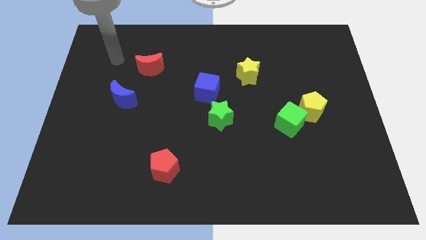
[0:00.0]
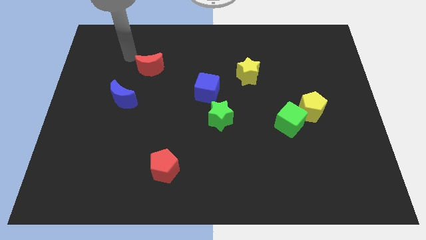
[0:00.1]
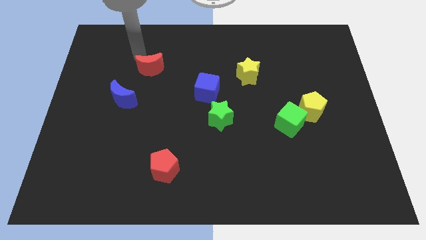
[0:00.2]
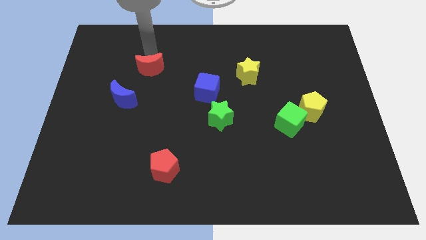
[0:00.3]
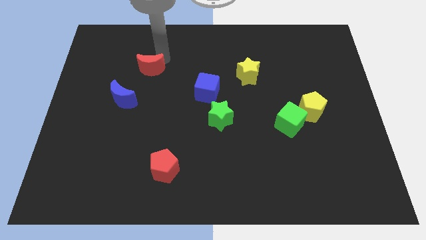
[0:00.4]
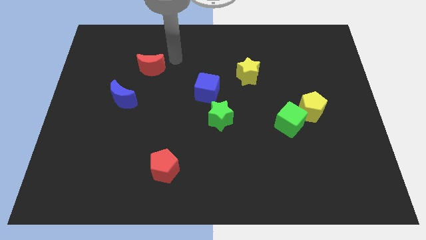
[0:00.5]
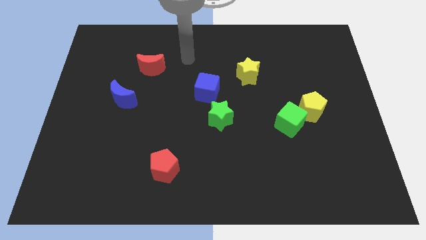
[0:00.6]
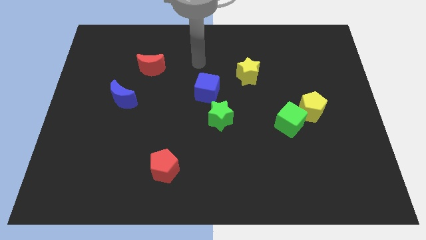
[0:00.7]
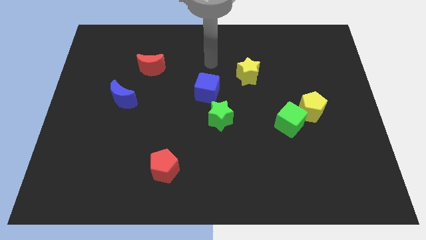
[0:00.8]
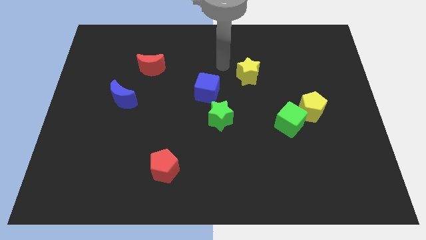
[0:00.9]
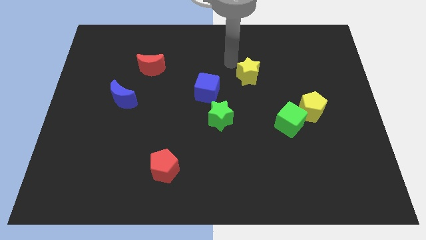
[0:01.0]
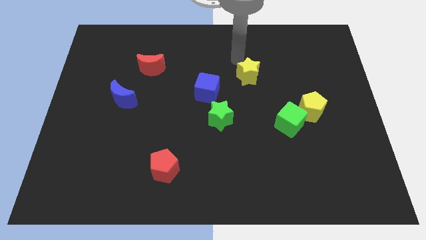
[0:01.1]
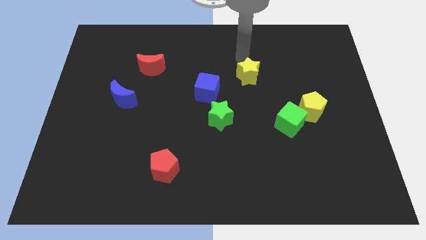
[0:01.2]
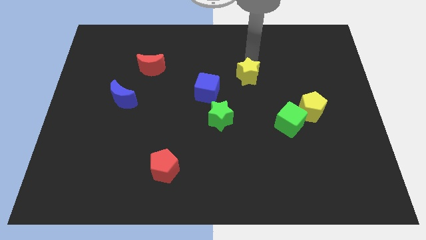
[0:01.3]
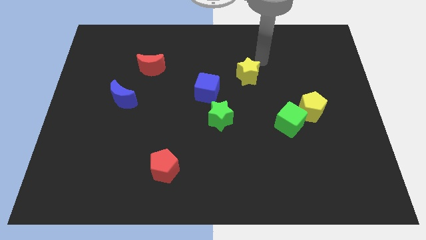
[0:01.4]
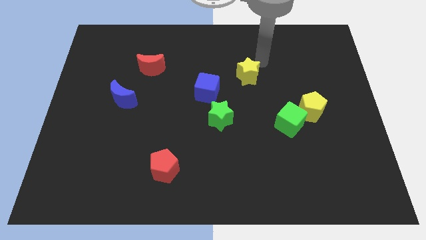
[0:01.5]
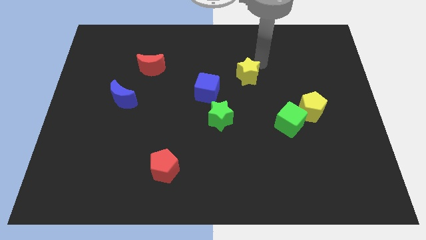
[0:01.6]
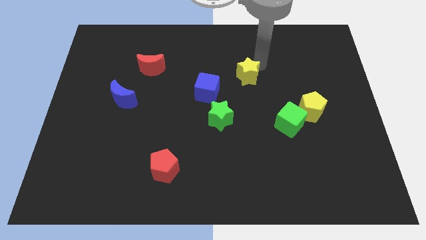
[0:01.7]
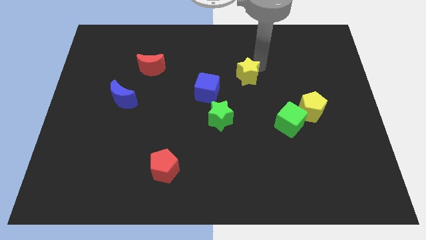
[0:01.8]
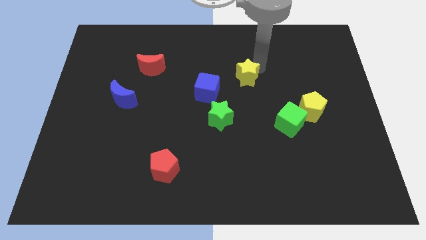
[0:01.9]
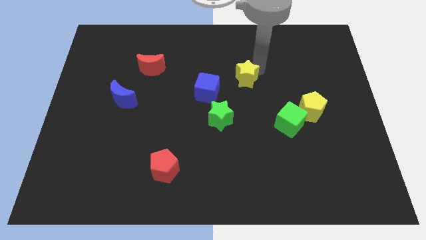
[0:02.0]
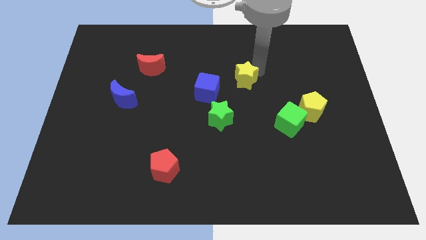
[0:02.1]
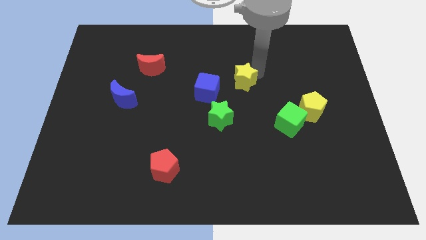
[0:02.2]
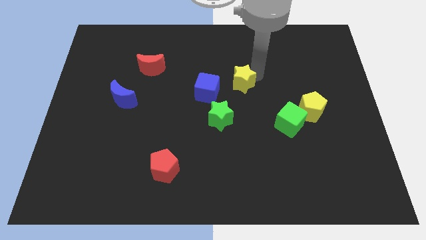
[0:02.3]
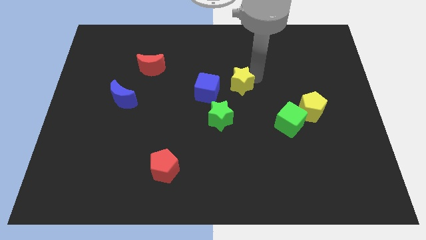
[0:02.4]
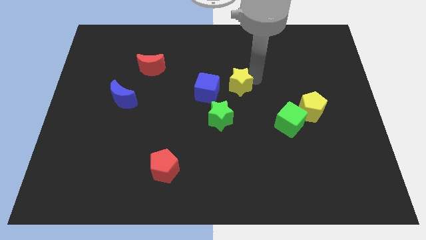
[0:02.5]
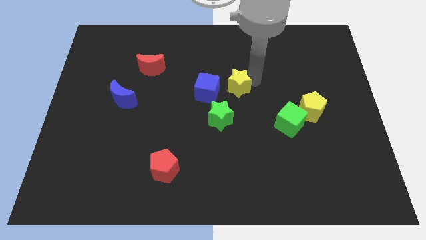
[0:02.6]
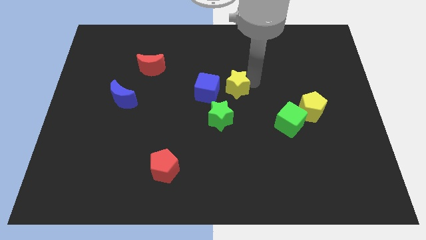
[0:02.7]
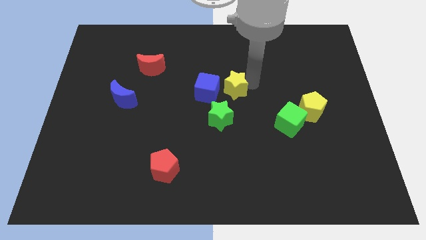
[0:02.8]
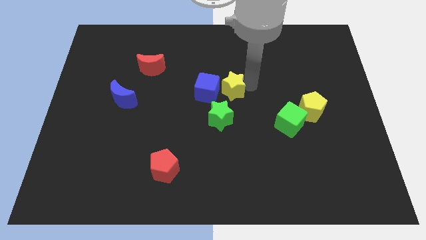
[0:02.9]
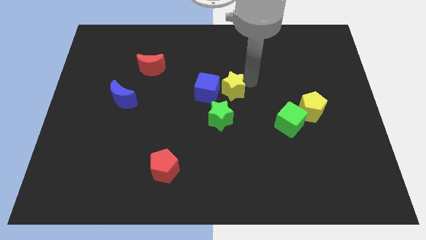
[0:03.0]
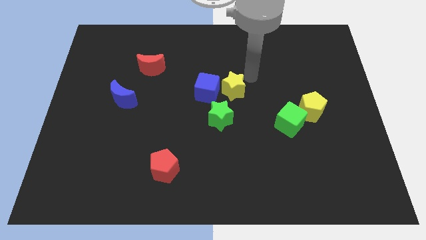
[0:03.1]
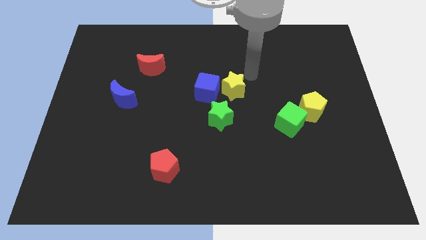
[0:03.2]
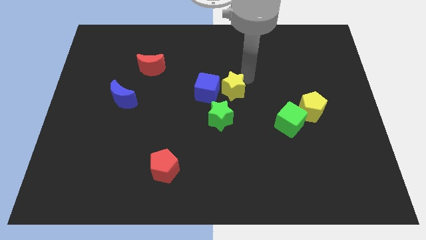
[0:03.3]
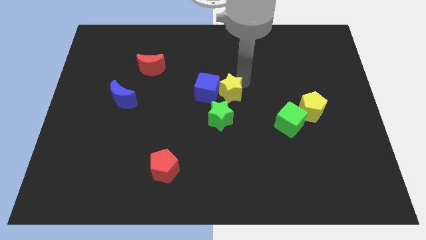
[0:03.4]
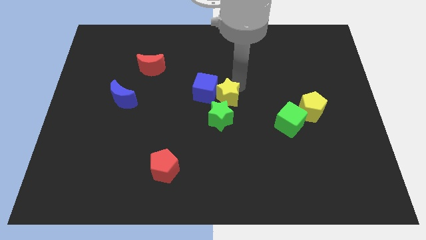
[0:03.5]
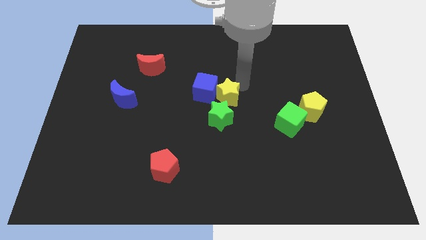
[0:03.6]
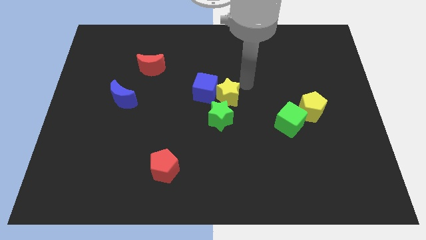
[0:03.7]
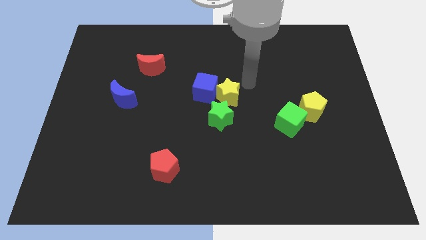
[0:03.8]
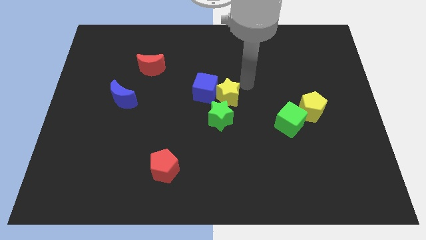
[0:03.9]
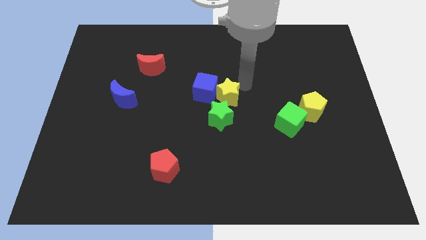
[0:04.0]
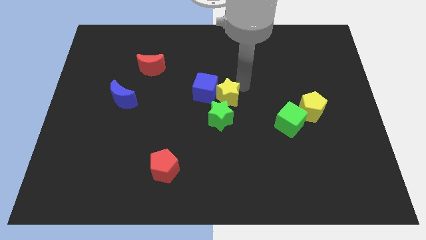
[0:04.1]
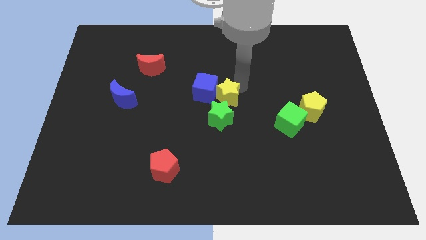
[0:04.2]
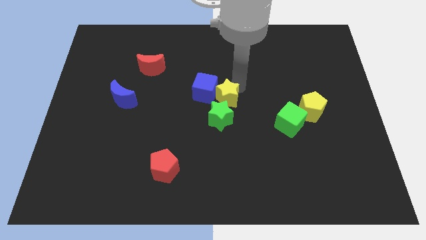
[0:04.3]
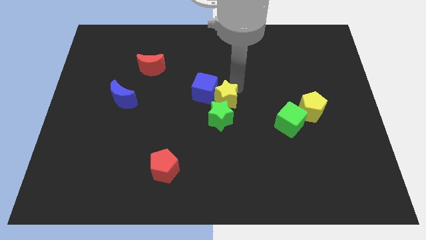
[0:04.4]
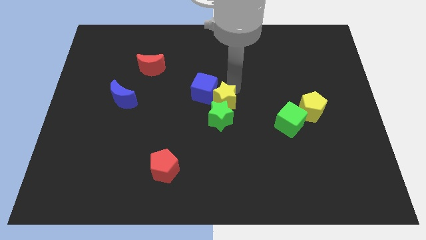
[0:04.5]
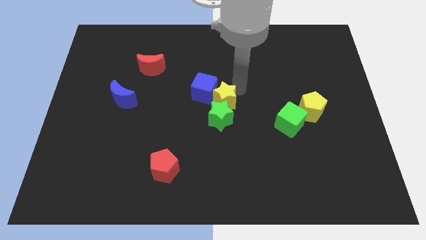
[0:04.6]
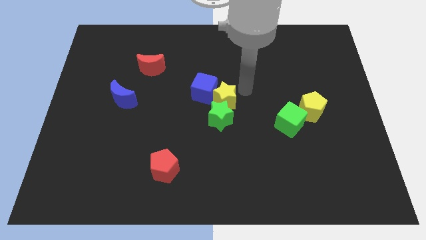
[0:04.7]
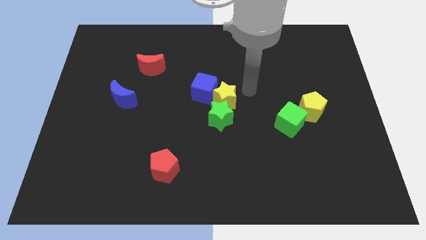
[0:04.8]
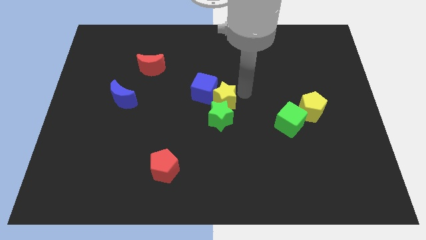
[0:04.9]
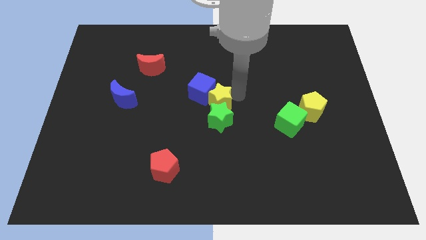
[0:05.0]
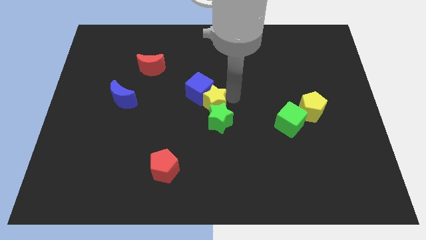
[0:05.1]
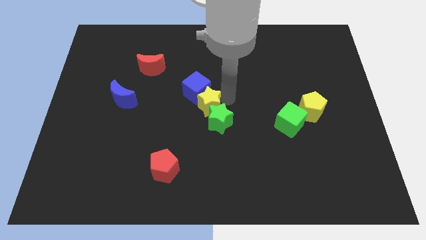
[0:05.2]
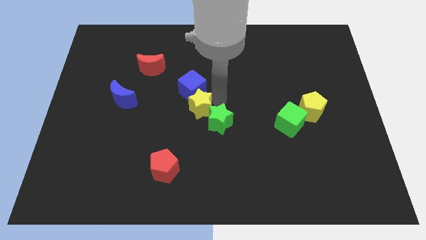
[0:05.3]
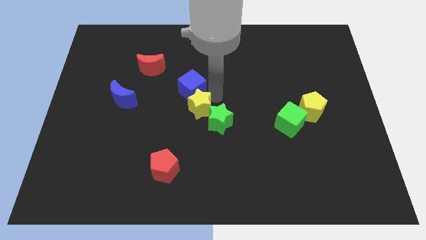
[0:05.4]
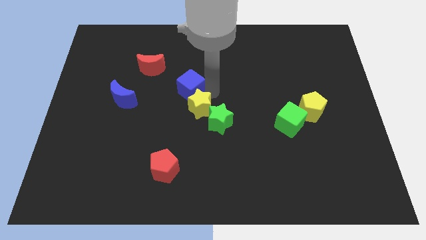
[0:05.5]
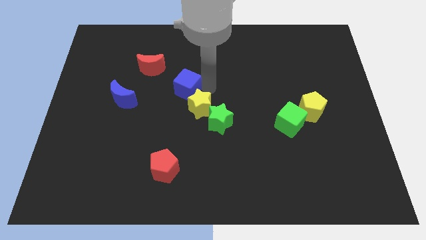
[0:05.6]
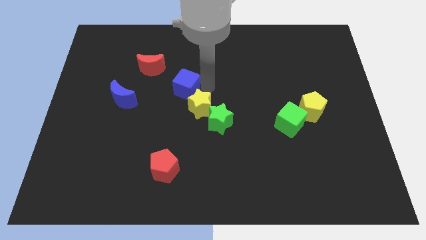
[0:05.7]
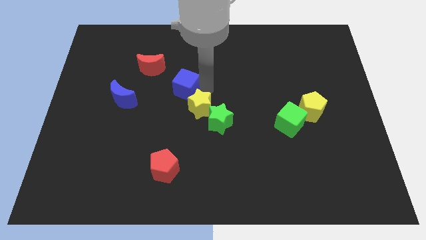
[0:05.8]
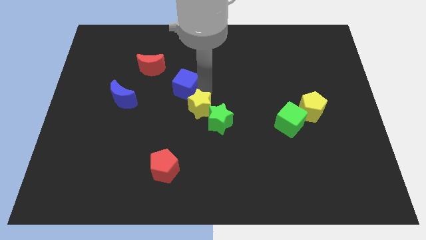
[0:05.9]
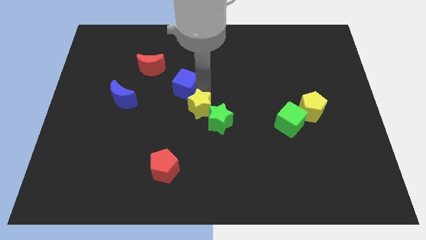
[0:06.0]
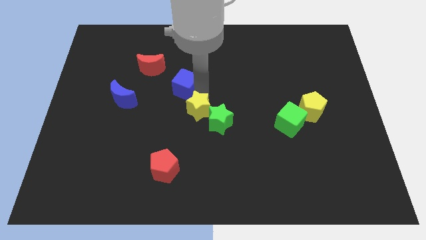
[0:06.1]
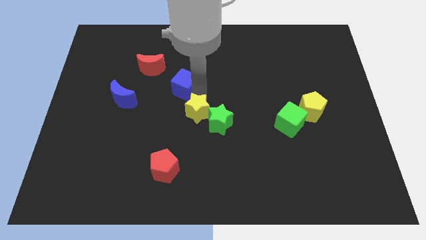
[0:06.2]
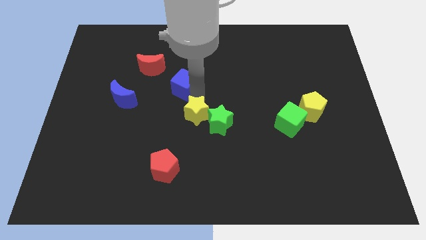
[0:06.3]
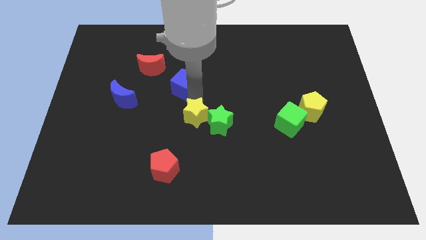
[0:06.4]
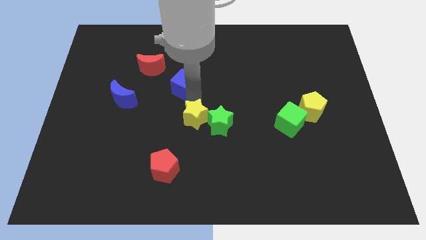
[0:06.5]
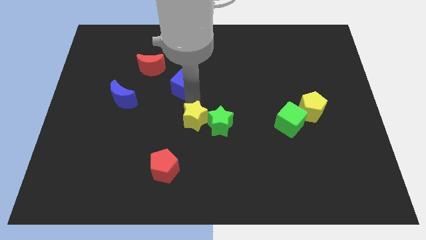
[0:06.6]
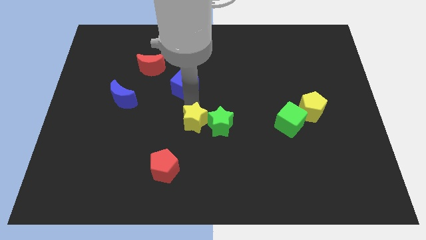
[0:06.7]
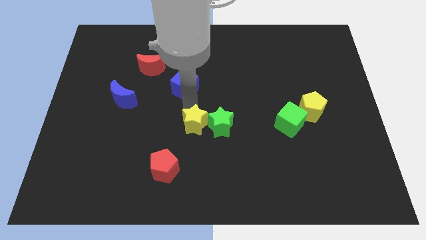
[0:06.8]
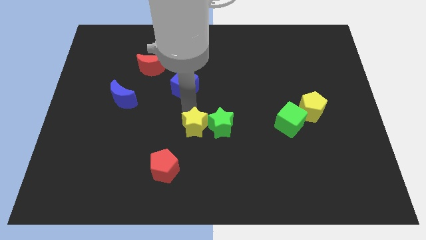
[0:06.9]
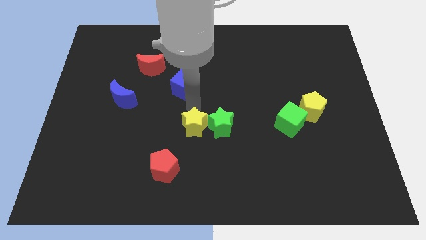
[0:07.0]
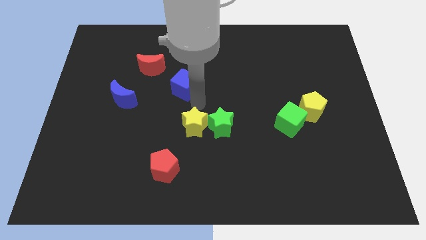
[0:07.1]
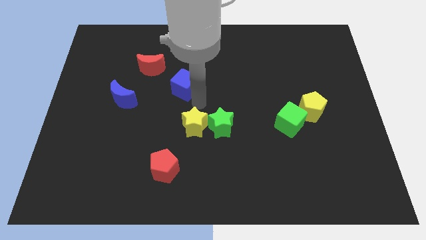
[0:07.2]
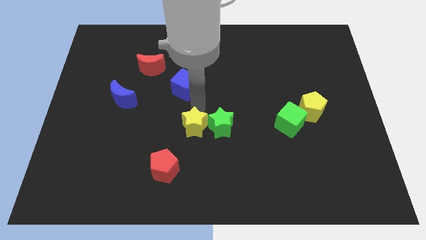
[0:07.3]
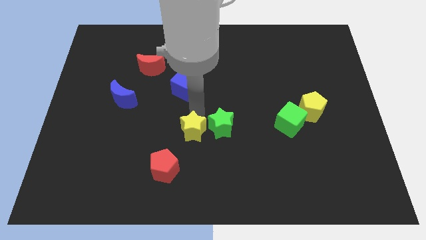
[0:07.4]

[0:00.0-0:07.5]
push the yellow star to the top right of the red pentagon
